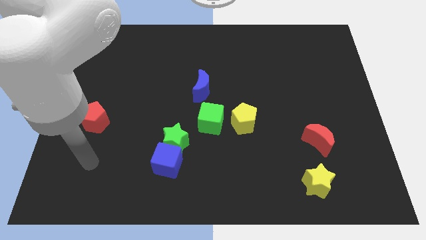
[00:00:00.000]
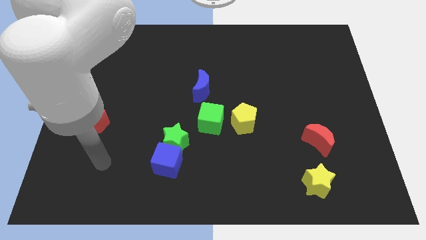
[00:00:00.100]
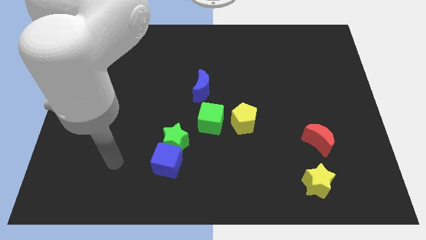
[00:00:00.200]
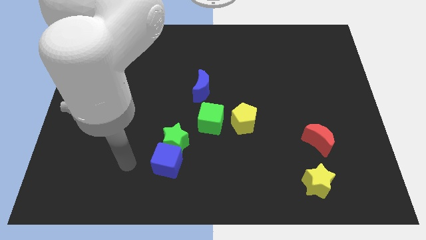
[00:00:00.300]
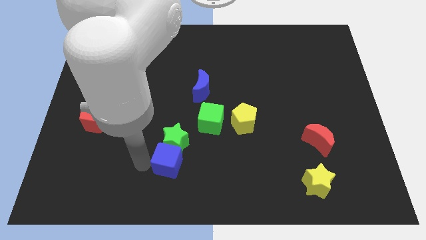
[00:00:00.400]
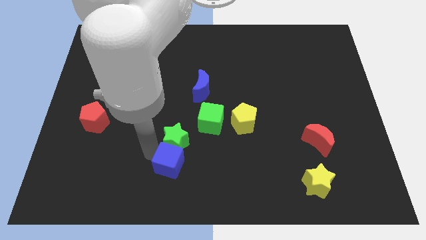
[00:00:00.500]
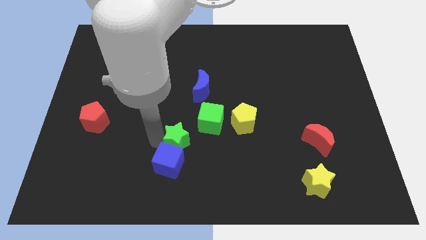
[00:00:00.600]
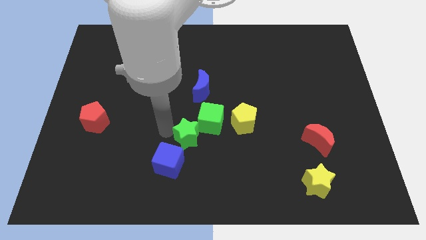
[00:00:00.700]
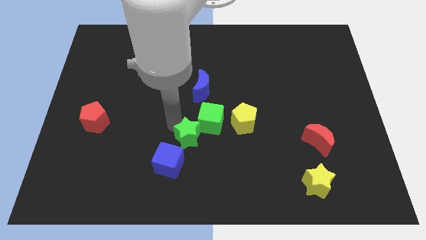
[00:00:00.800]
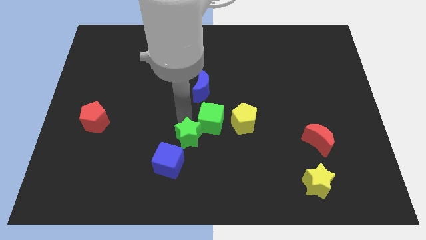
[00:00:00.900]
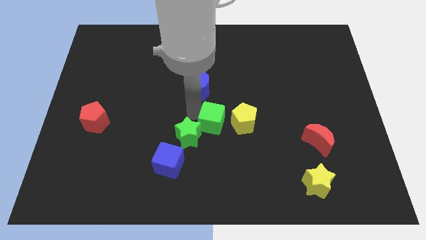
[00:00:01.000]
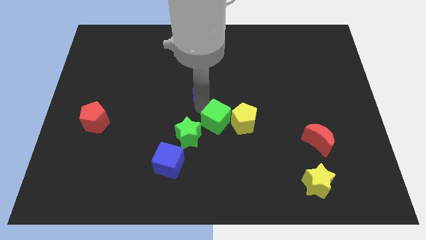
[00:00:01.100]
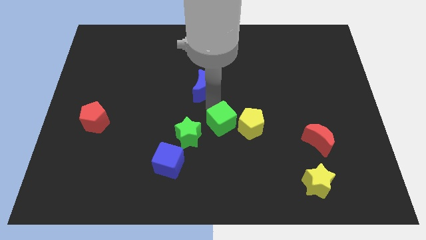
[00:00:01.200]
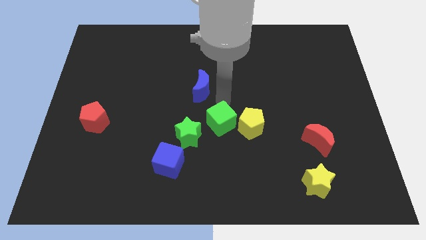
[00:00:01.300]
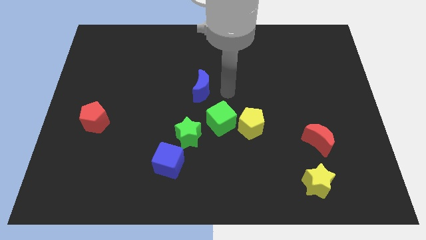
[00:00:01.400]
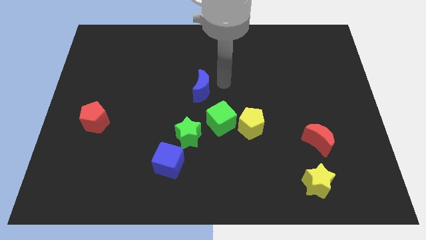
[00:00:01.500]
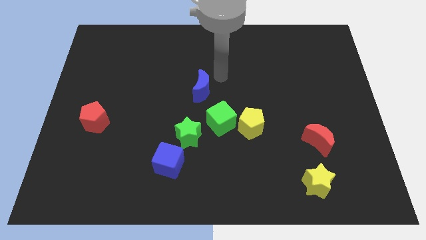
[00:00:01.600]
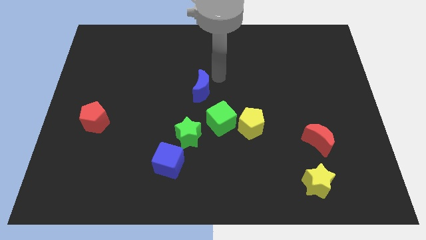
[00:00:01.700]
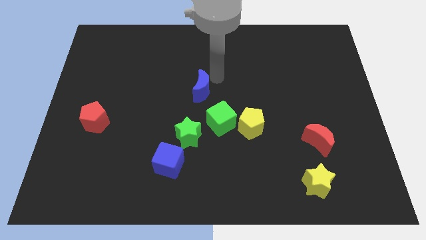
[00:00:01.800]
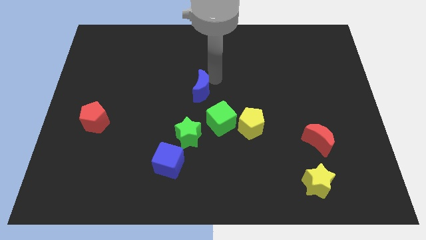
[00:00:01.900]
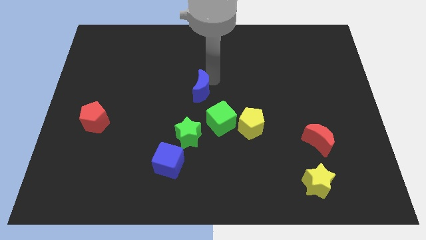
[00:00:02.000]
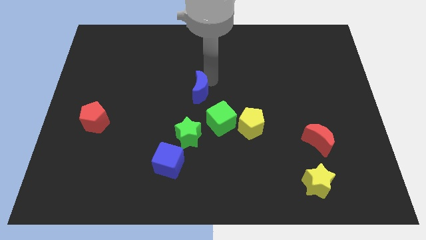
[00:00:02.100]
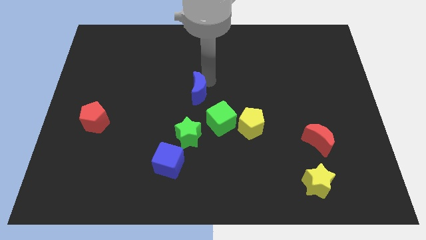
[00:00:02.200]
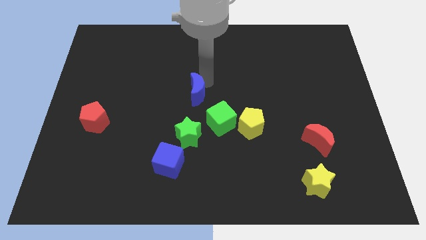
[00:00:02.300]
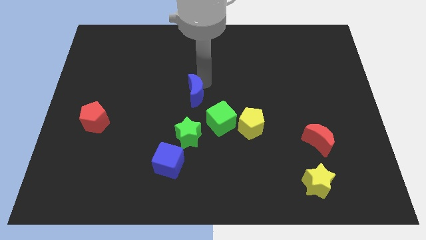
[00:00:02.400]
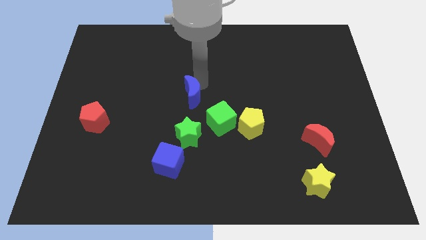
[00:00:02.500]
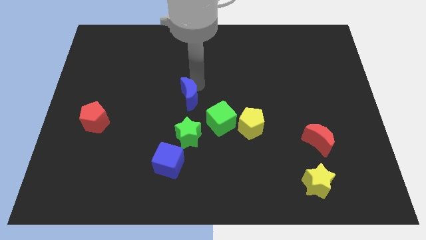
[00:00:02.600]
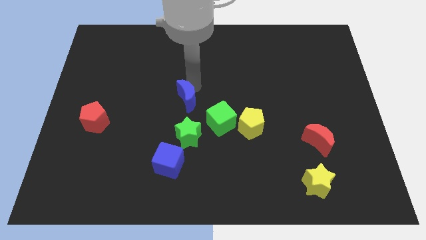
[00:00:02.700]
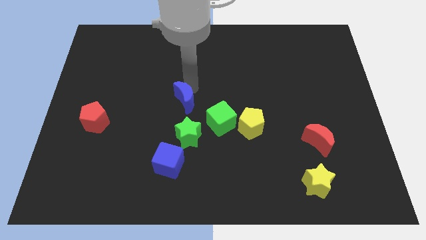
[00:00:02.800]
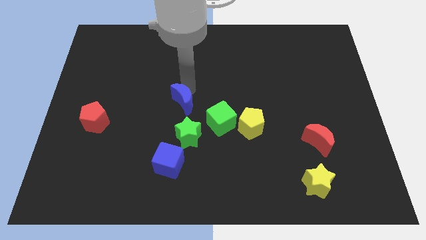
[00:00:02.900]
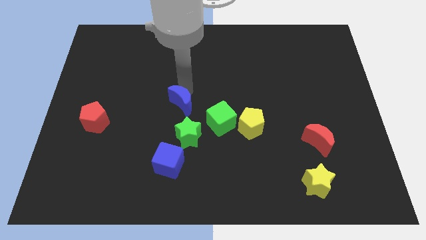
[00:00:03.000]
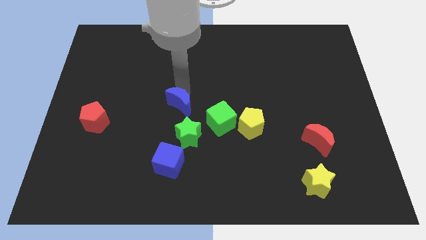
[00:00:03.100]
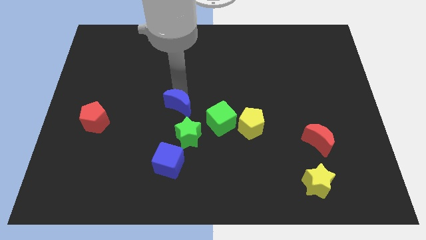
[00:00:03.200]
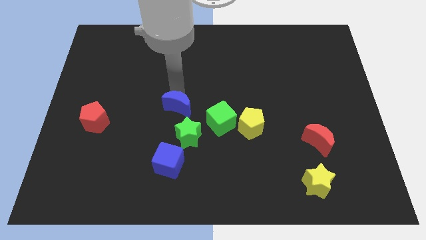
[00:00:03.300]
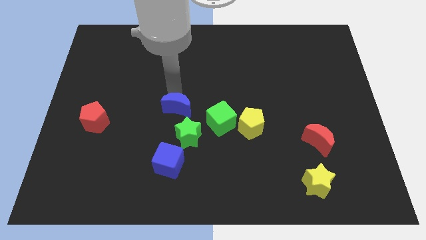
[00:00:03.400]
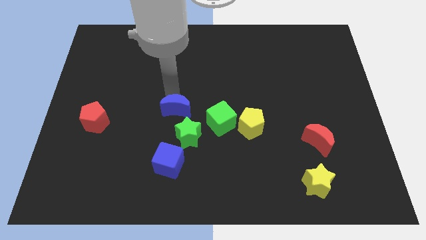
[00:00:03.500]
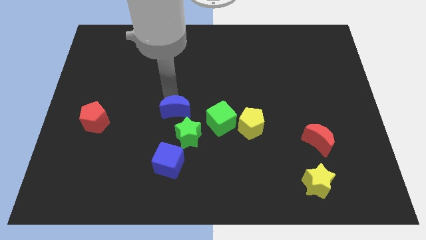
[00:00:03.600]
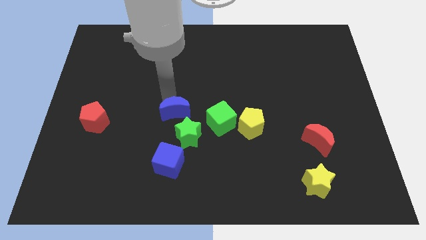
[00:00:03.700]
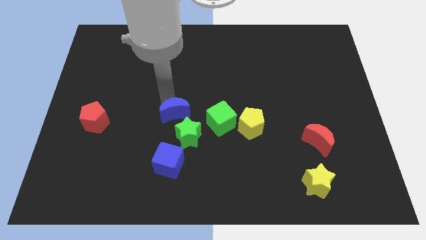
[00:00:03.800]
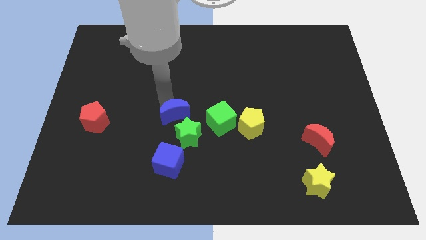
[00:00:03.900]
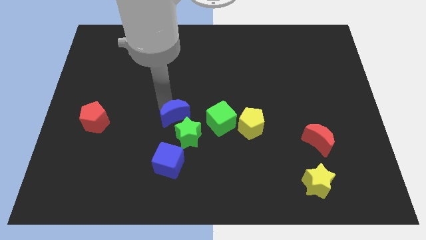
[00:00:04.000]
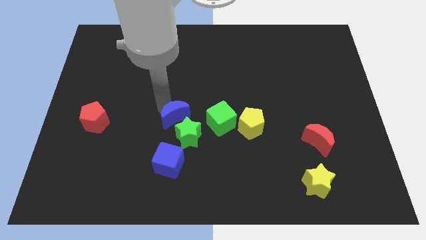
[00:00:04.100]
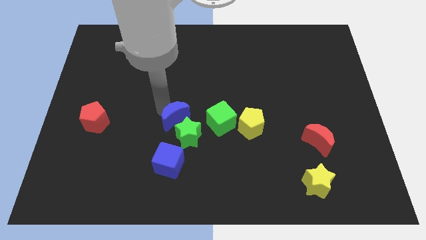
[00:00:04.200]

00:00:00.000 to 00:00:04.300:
slightly push the blue moon downwards

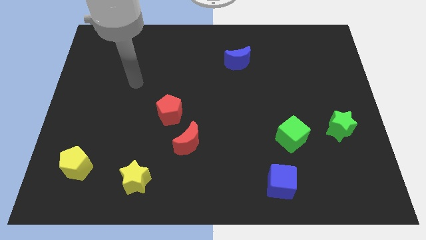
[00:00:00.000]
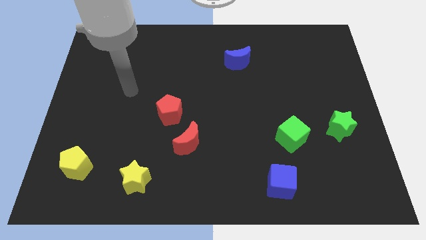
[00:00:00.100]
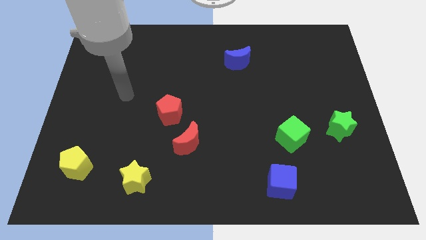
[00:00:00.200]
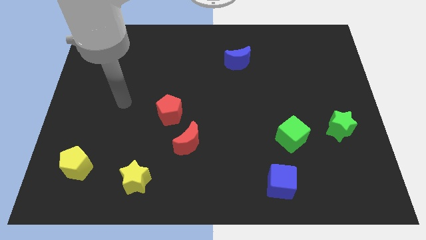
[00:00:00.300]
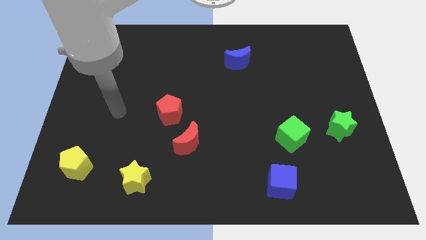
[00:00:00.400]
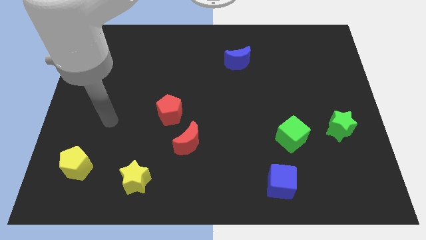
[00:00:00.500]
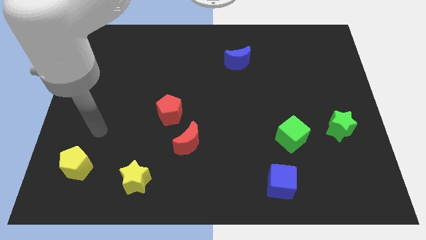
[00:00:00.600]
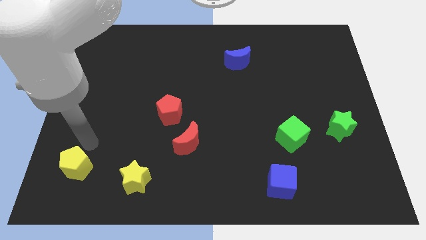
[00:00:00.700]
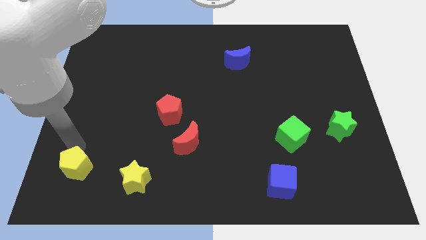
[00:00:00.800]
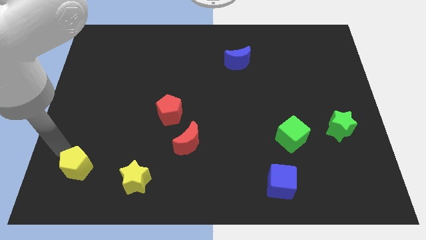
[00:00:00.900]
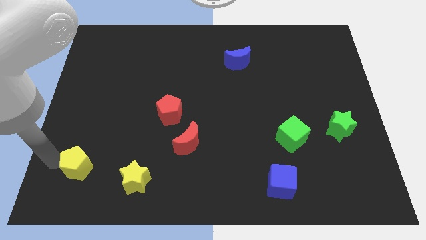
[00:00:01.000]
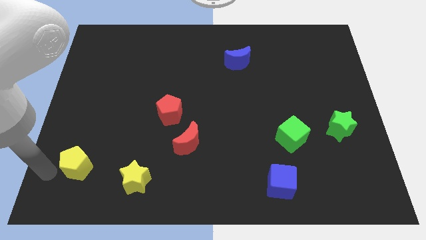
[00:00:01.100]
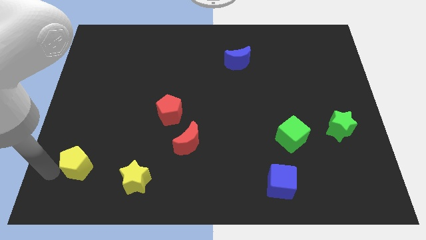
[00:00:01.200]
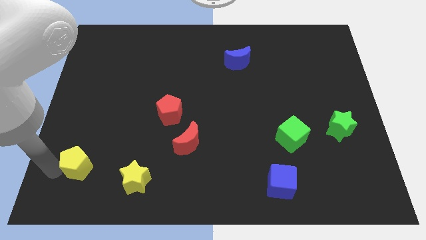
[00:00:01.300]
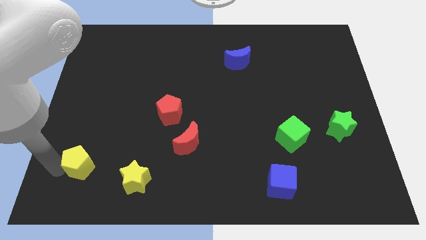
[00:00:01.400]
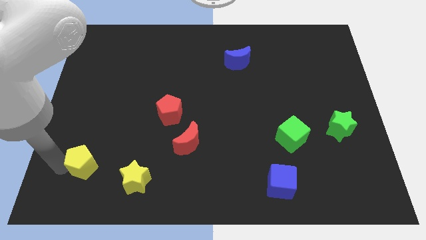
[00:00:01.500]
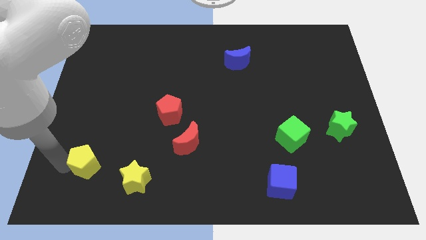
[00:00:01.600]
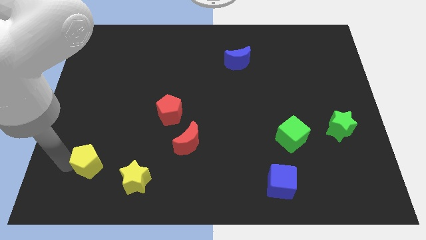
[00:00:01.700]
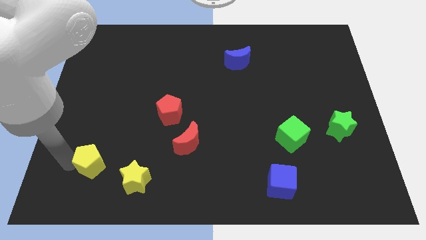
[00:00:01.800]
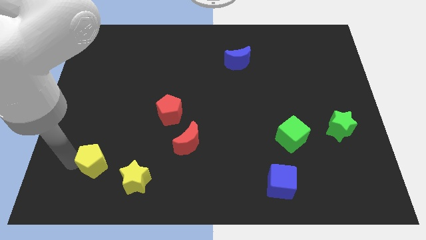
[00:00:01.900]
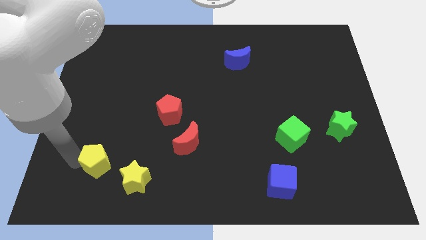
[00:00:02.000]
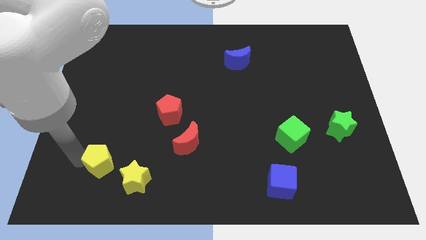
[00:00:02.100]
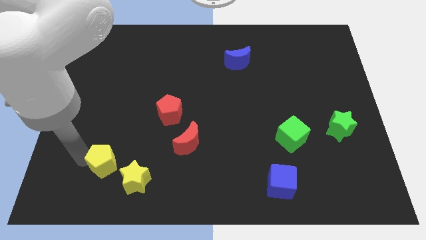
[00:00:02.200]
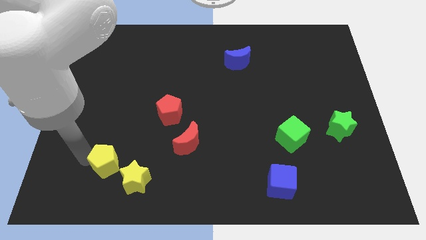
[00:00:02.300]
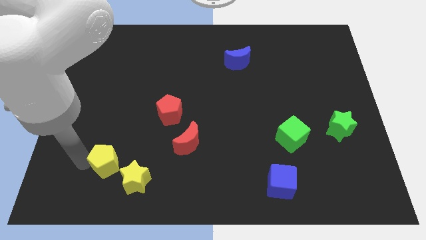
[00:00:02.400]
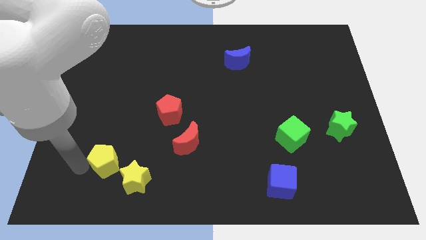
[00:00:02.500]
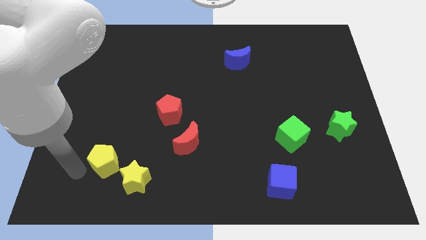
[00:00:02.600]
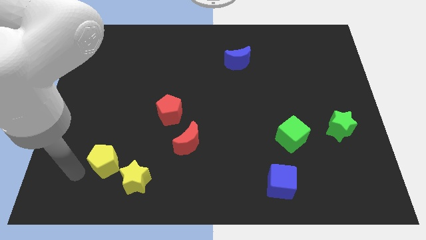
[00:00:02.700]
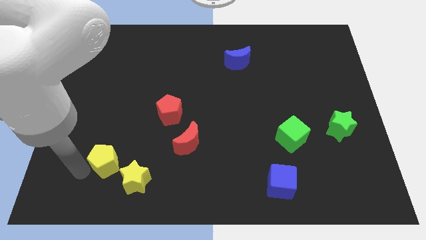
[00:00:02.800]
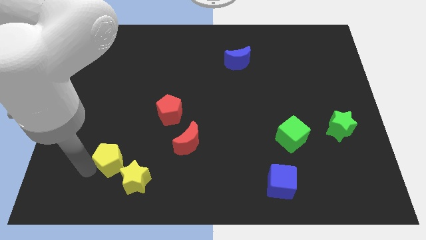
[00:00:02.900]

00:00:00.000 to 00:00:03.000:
move the yellow pentagon a little right

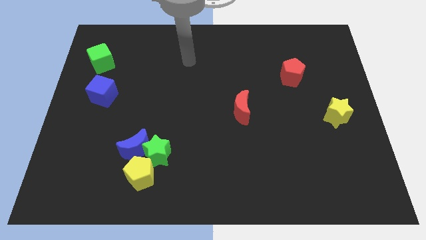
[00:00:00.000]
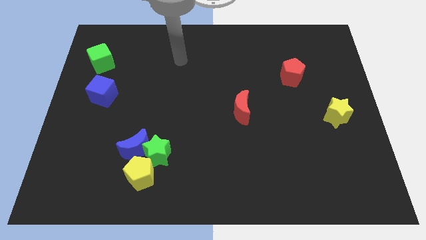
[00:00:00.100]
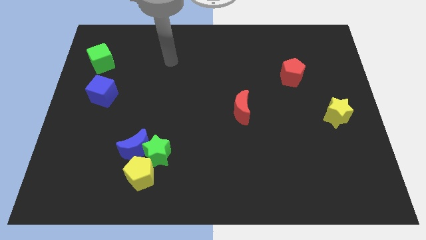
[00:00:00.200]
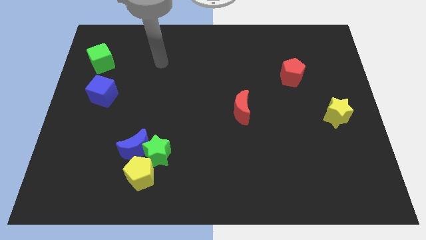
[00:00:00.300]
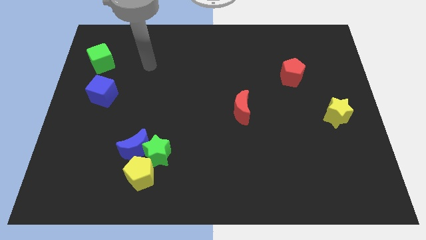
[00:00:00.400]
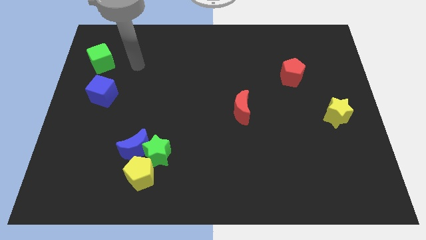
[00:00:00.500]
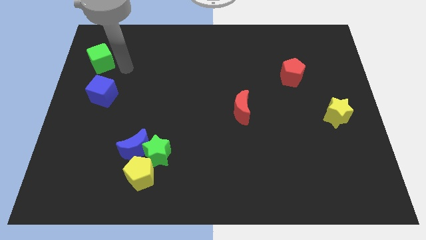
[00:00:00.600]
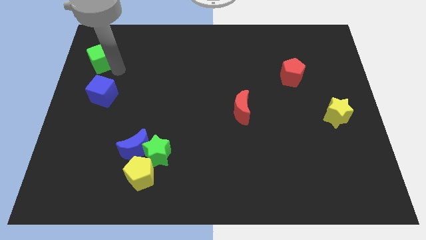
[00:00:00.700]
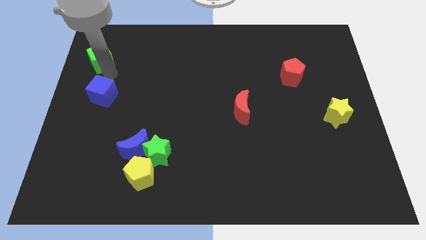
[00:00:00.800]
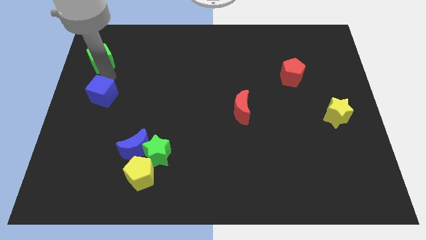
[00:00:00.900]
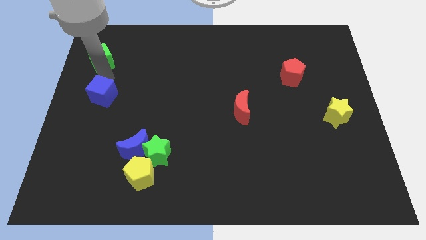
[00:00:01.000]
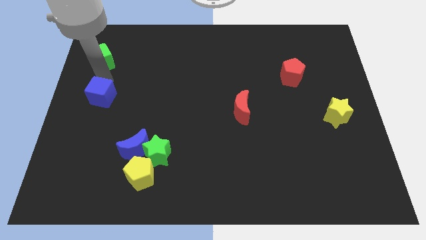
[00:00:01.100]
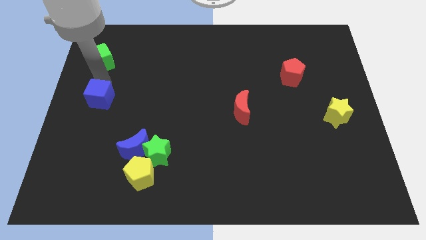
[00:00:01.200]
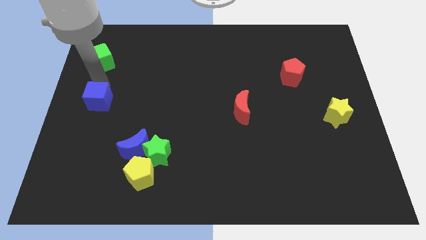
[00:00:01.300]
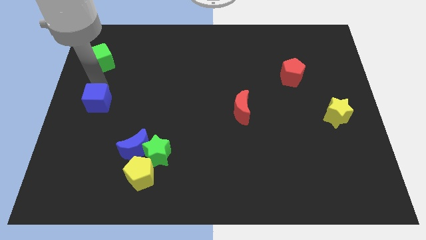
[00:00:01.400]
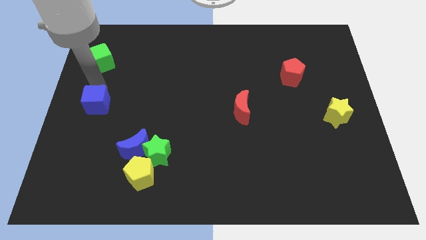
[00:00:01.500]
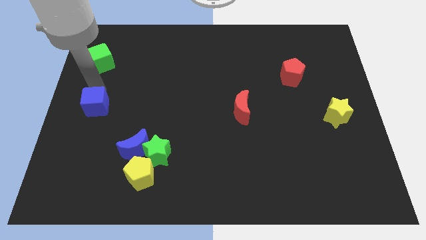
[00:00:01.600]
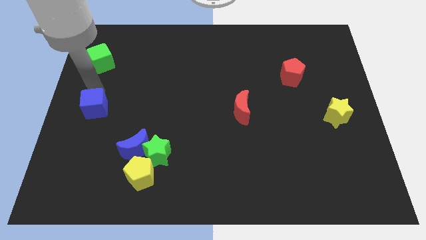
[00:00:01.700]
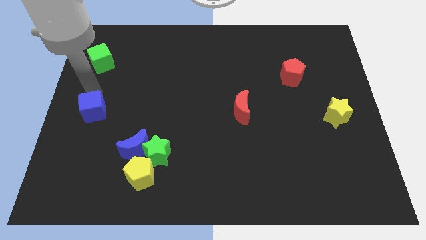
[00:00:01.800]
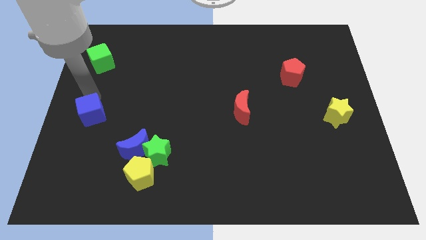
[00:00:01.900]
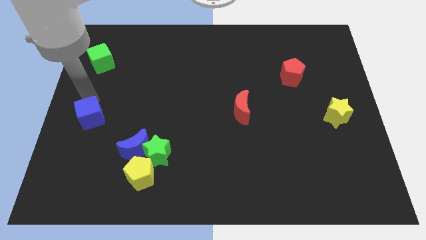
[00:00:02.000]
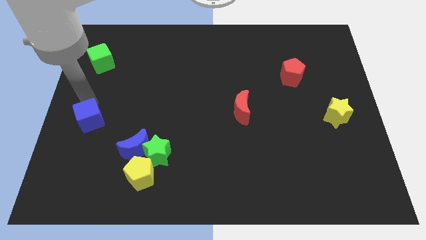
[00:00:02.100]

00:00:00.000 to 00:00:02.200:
push the blue cube slightly downwards
